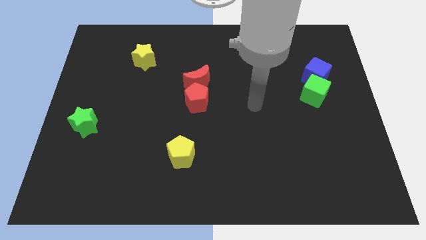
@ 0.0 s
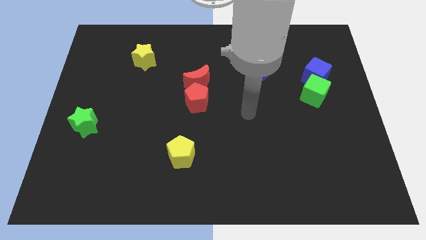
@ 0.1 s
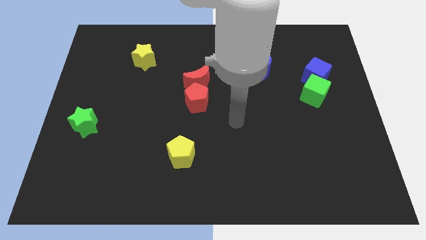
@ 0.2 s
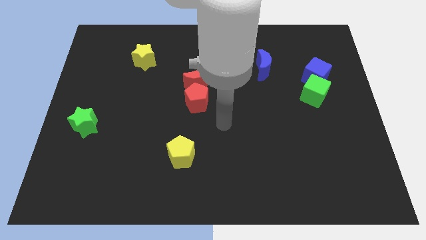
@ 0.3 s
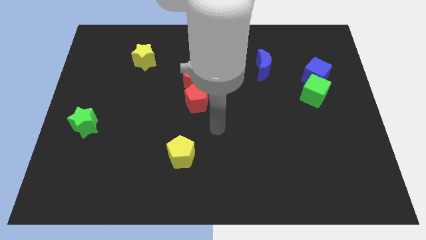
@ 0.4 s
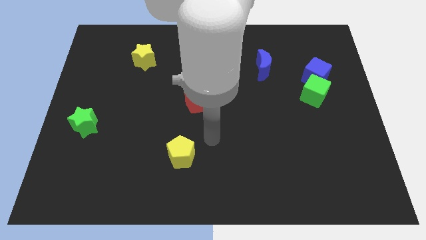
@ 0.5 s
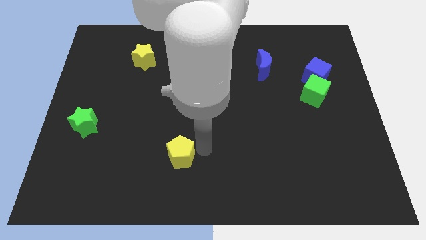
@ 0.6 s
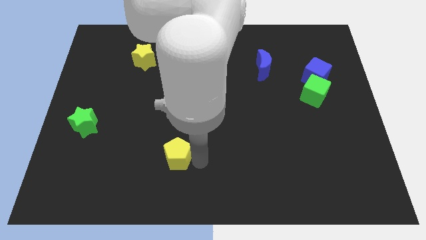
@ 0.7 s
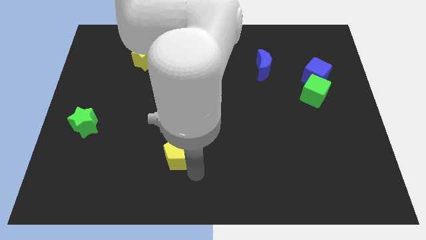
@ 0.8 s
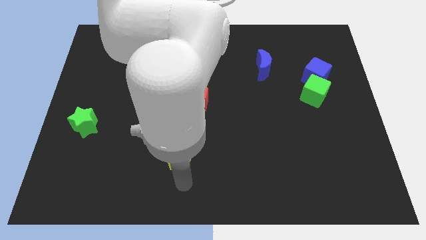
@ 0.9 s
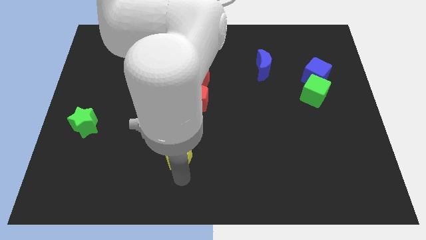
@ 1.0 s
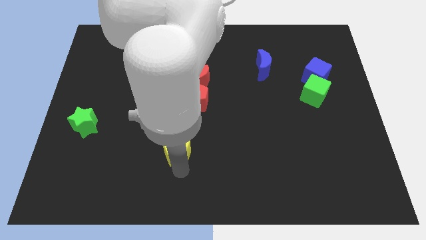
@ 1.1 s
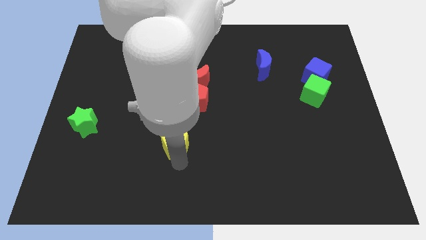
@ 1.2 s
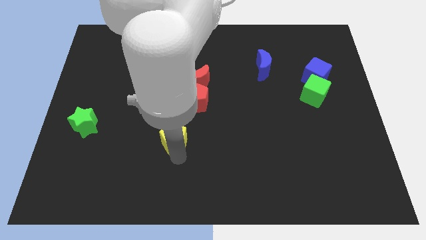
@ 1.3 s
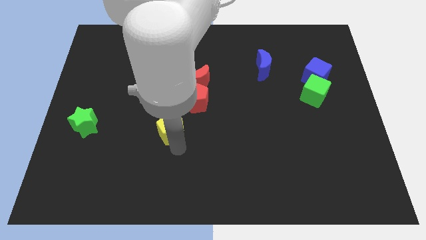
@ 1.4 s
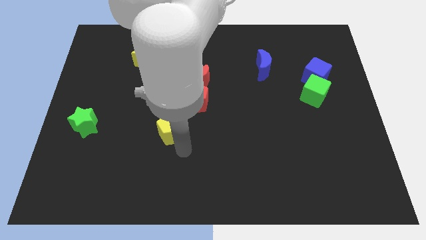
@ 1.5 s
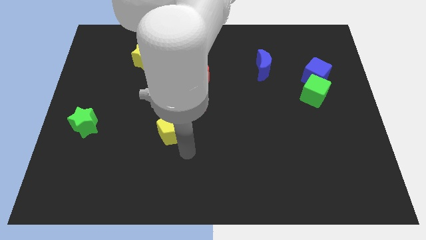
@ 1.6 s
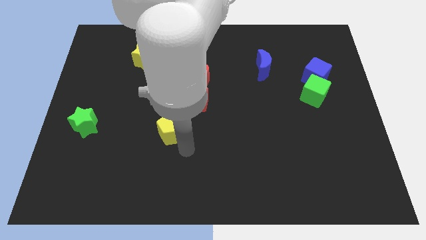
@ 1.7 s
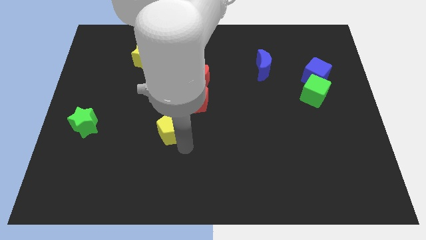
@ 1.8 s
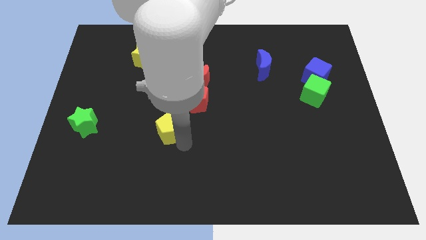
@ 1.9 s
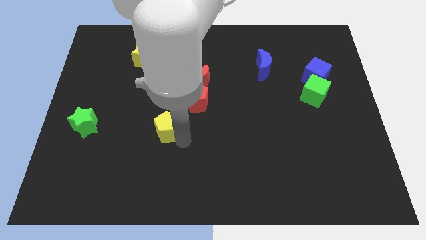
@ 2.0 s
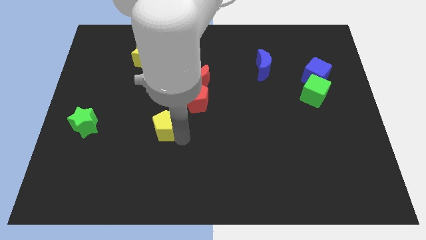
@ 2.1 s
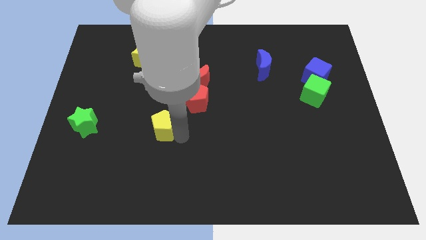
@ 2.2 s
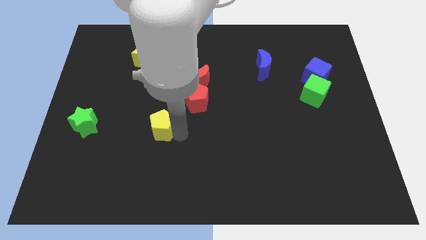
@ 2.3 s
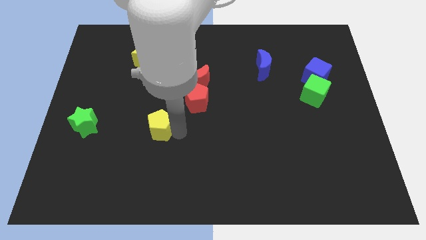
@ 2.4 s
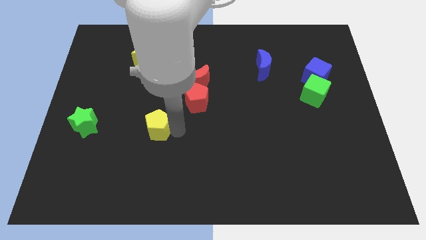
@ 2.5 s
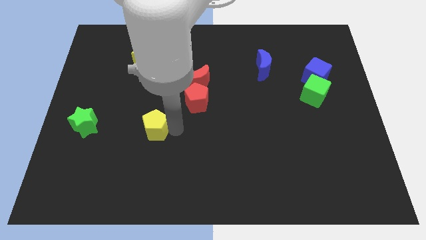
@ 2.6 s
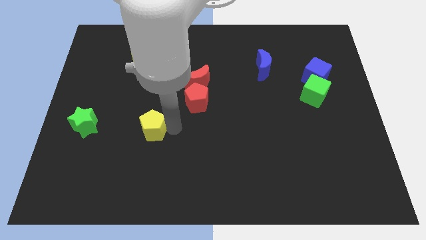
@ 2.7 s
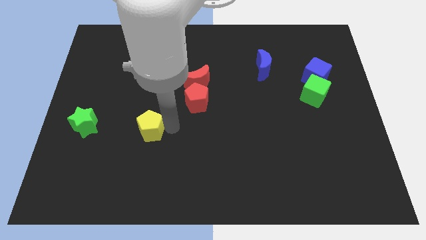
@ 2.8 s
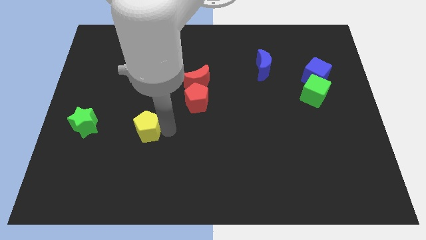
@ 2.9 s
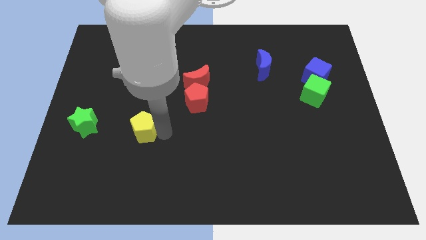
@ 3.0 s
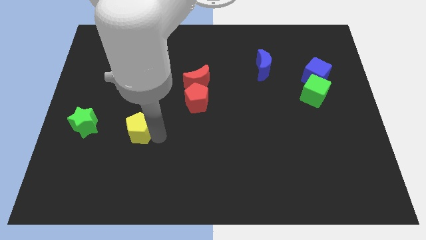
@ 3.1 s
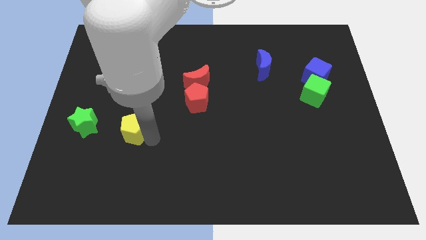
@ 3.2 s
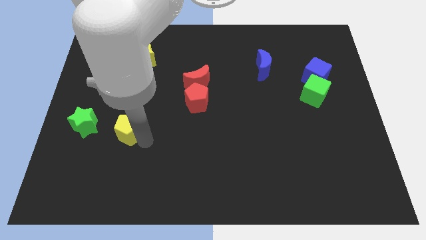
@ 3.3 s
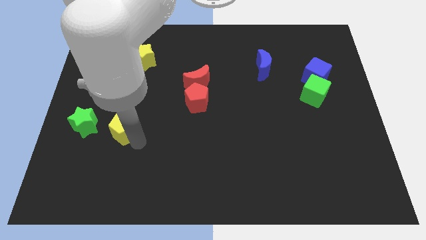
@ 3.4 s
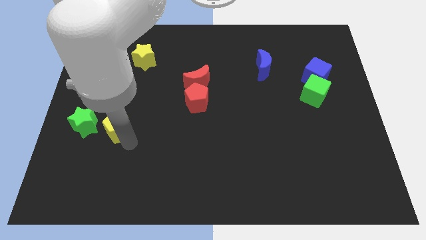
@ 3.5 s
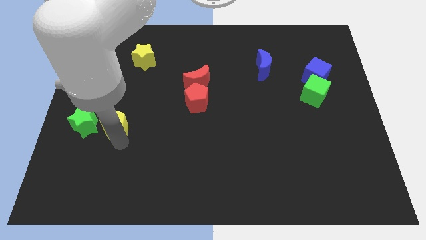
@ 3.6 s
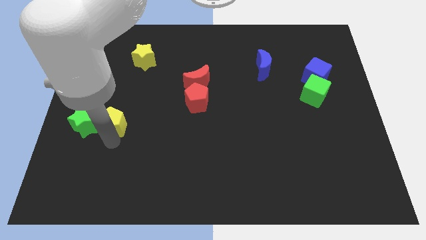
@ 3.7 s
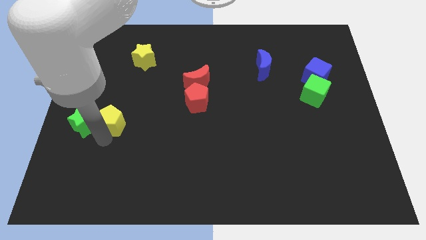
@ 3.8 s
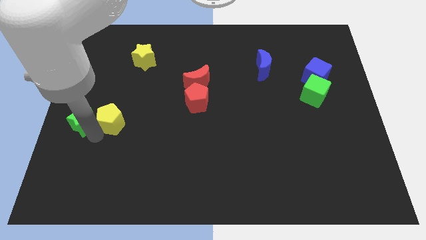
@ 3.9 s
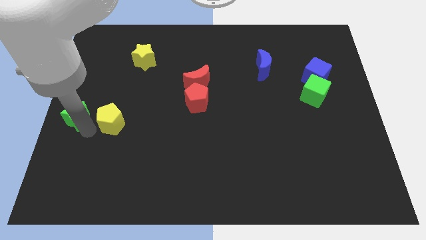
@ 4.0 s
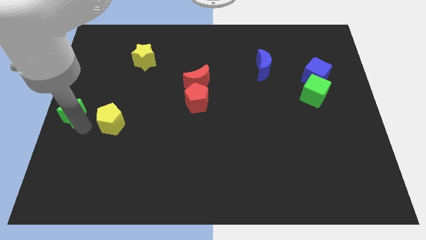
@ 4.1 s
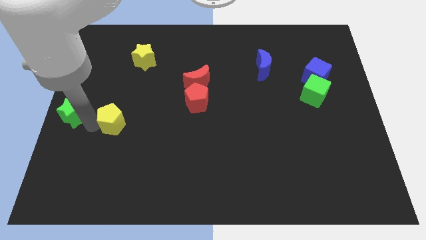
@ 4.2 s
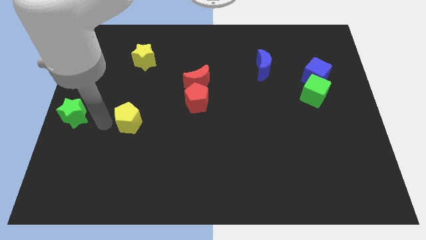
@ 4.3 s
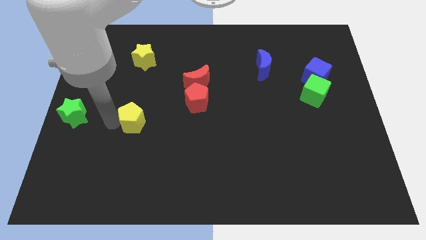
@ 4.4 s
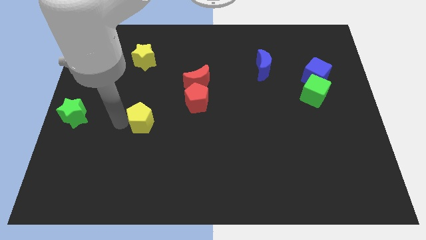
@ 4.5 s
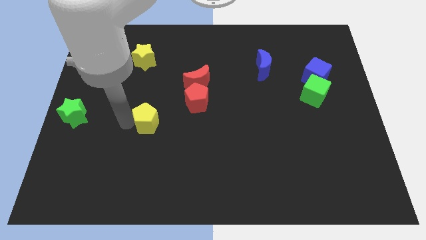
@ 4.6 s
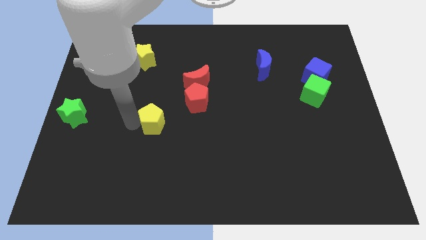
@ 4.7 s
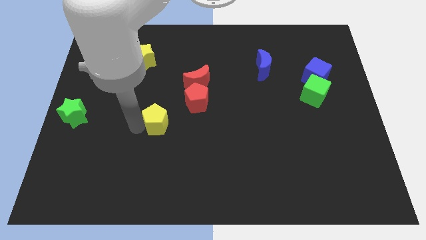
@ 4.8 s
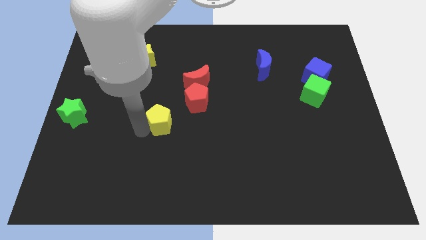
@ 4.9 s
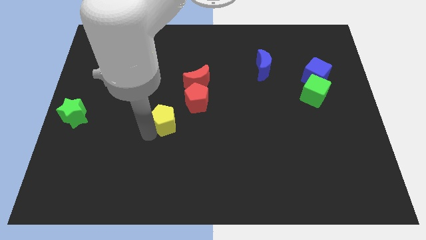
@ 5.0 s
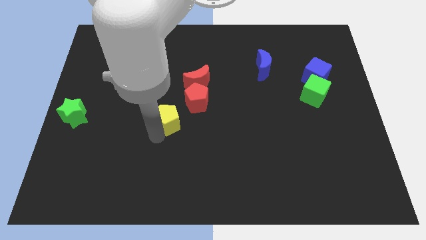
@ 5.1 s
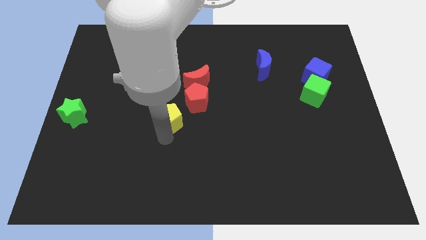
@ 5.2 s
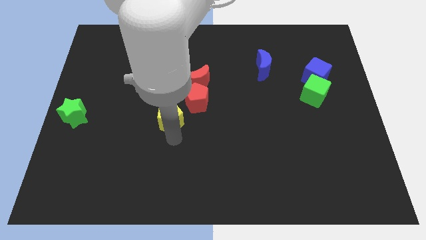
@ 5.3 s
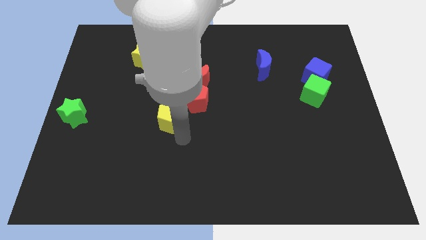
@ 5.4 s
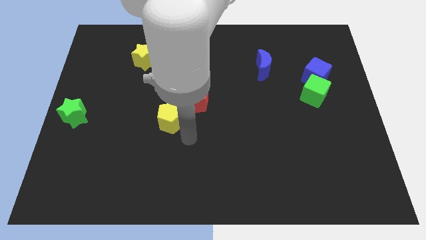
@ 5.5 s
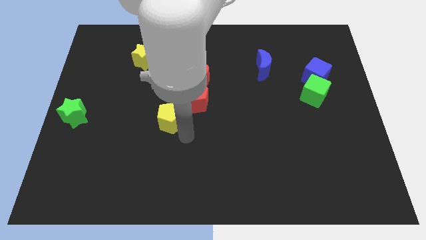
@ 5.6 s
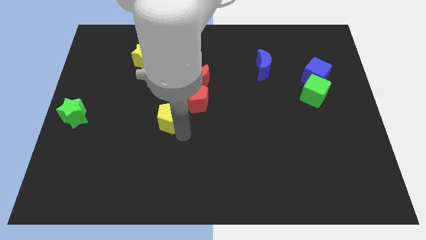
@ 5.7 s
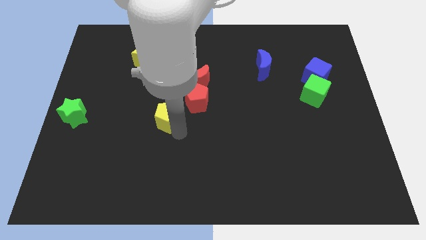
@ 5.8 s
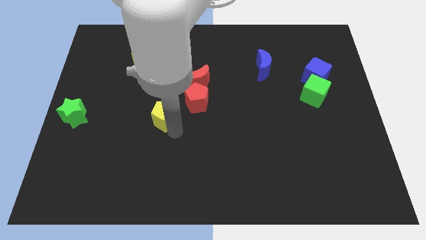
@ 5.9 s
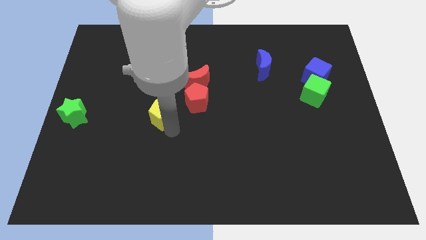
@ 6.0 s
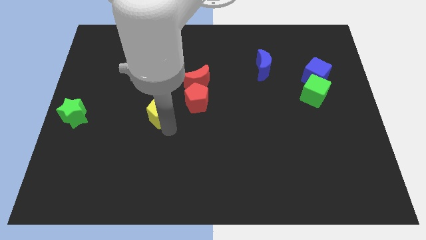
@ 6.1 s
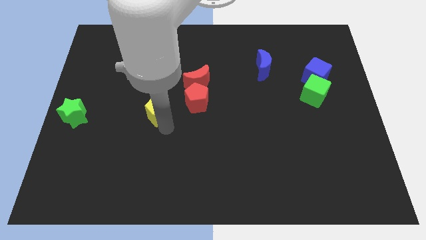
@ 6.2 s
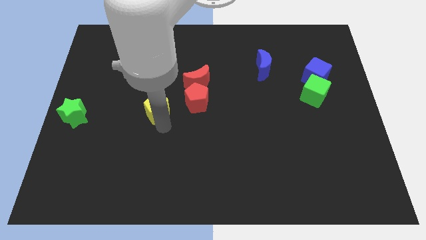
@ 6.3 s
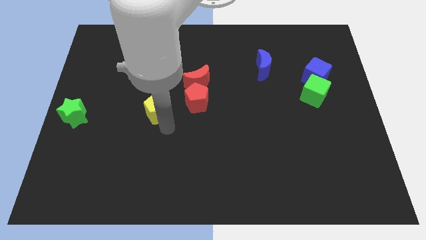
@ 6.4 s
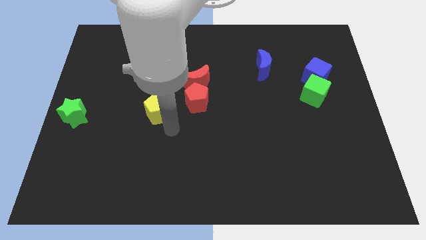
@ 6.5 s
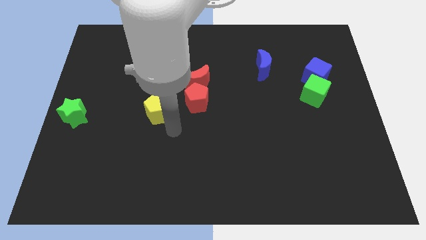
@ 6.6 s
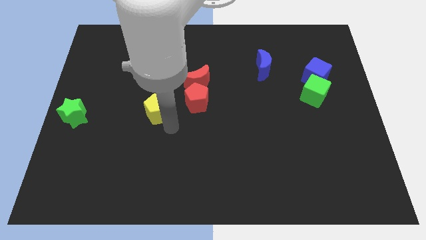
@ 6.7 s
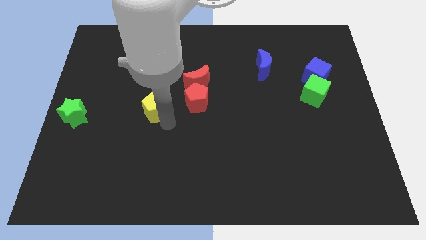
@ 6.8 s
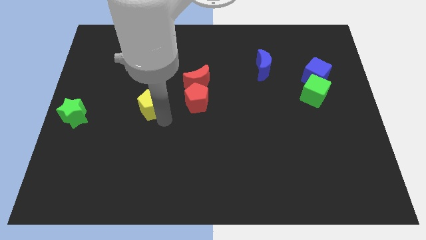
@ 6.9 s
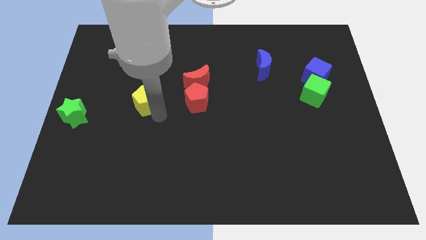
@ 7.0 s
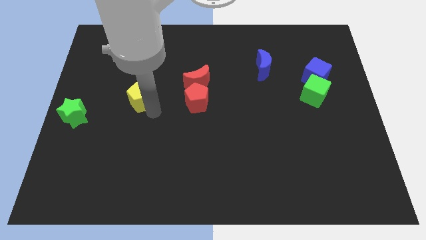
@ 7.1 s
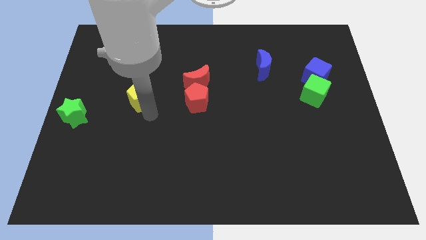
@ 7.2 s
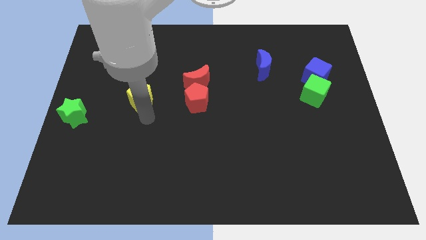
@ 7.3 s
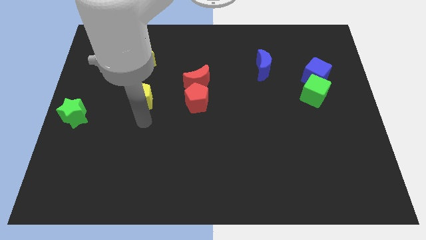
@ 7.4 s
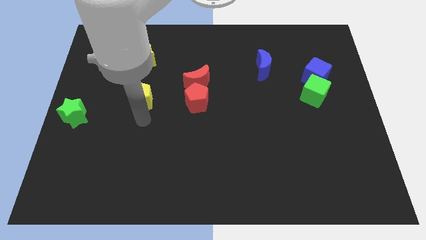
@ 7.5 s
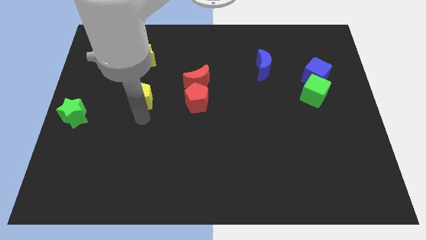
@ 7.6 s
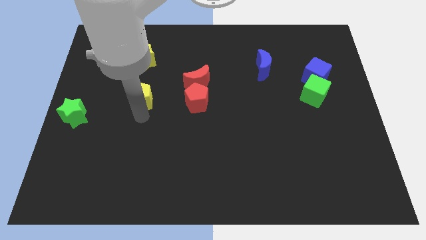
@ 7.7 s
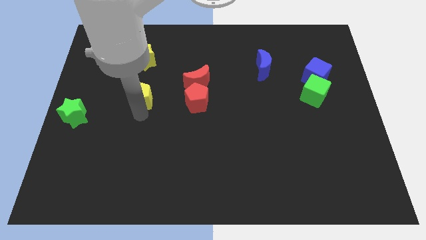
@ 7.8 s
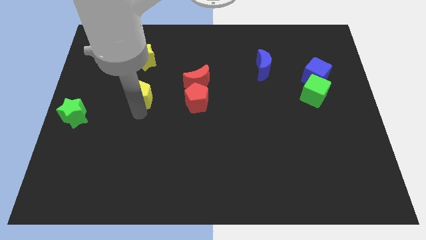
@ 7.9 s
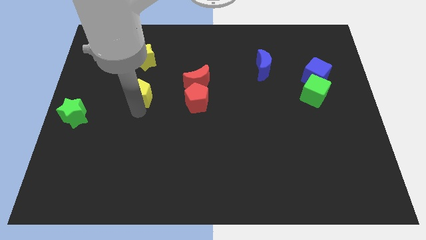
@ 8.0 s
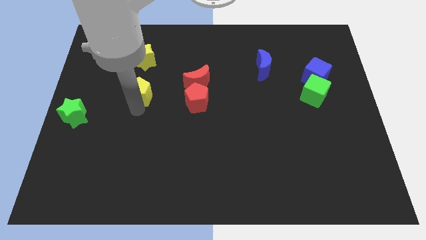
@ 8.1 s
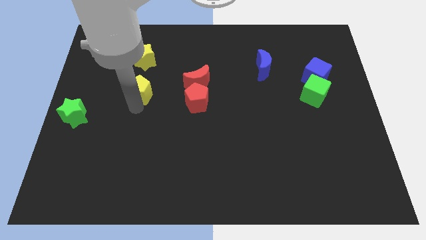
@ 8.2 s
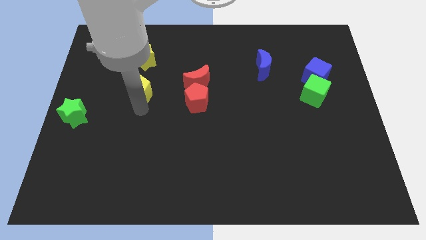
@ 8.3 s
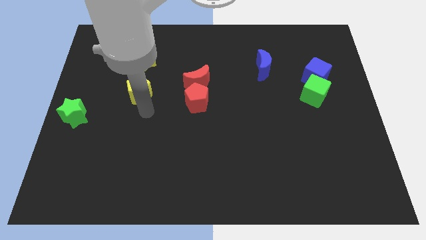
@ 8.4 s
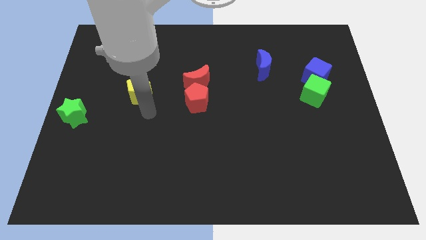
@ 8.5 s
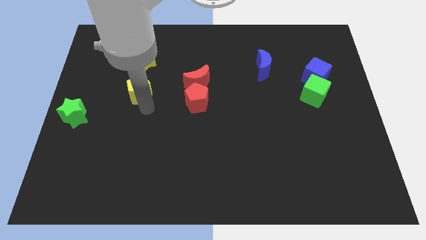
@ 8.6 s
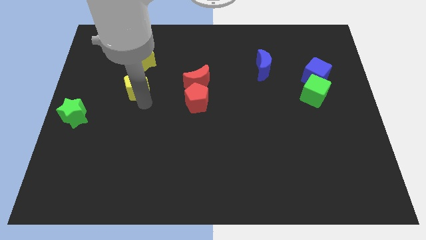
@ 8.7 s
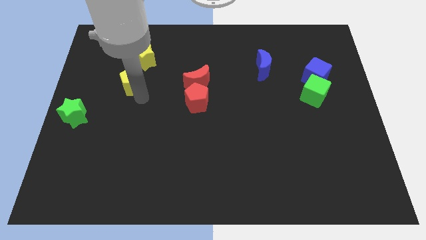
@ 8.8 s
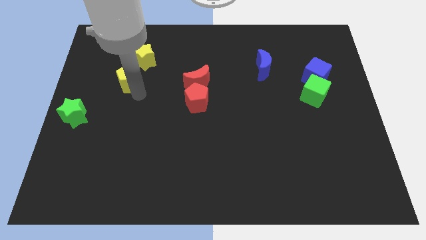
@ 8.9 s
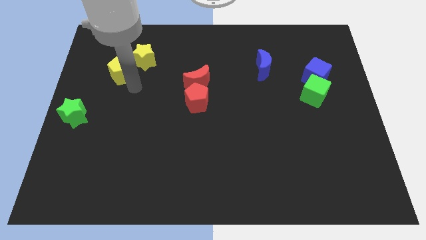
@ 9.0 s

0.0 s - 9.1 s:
put the yellow pentagon left of the yellow star
